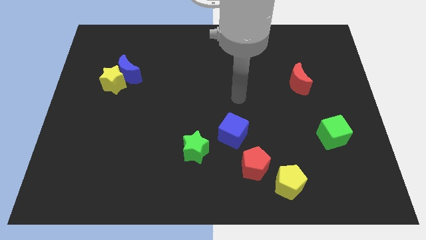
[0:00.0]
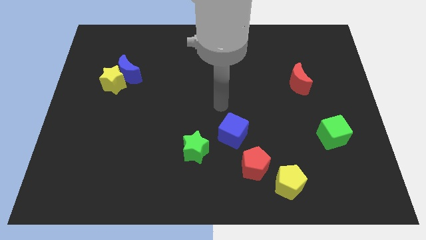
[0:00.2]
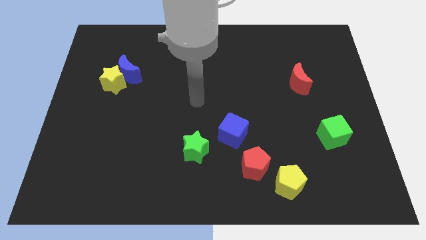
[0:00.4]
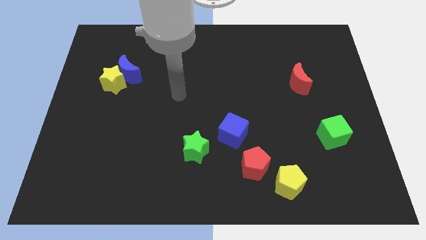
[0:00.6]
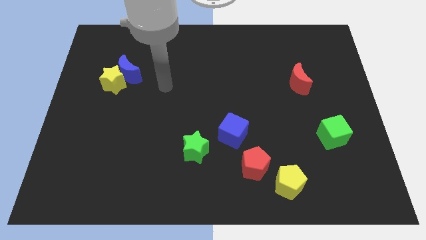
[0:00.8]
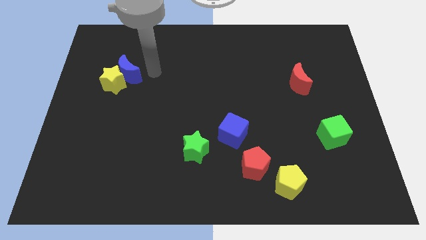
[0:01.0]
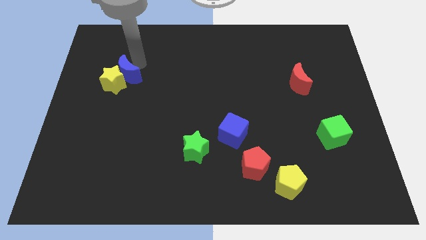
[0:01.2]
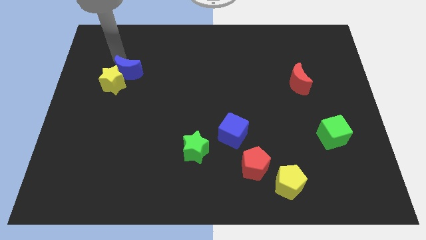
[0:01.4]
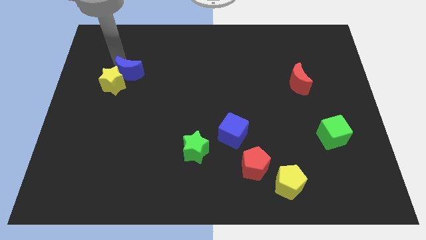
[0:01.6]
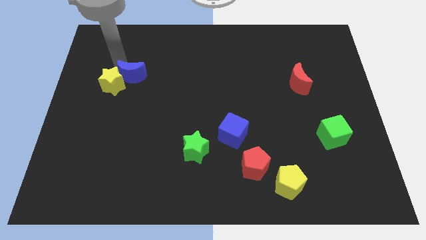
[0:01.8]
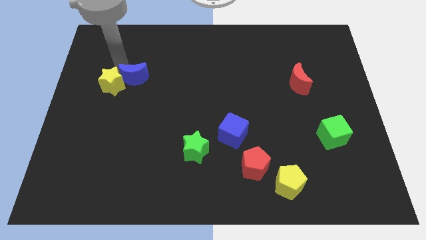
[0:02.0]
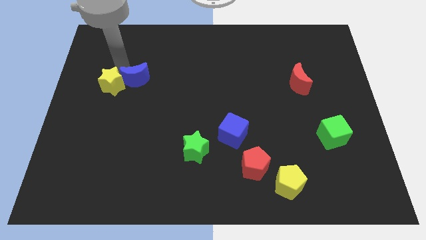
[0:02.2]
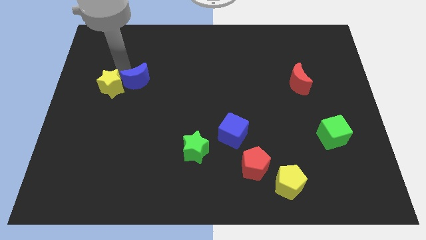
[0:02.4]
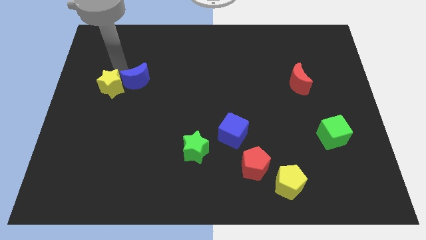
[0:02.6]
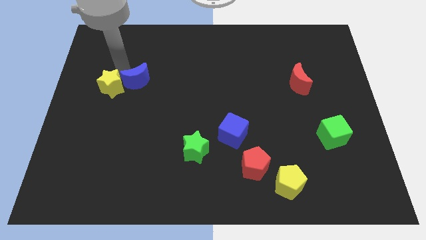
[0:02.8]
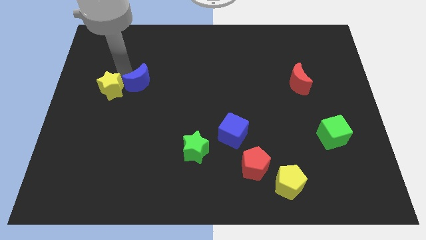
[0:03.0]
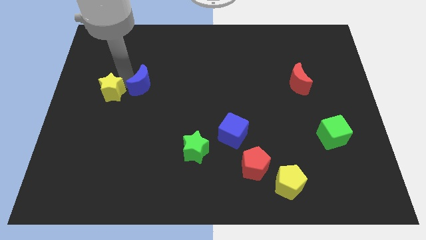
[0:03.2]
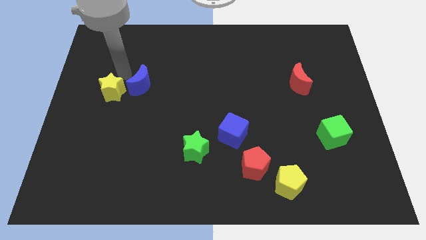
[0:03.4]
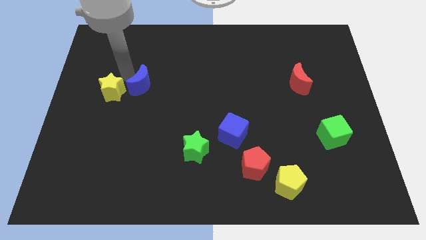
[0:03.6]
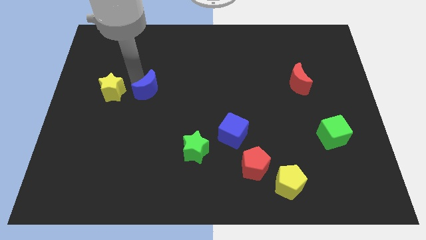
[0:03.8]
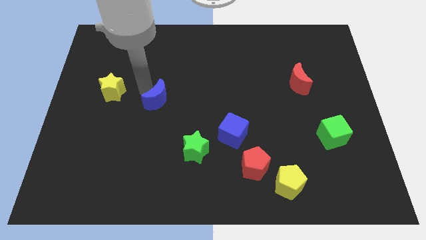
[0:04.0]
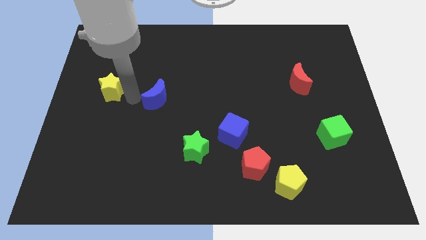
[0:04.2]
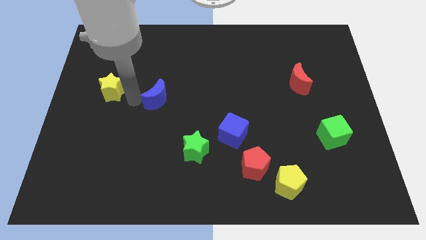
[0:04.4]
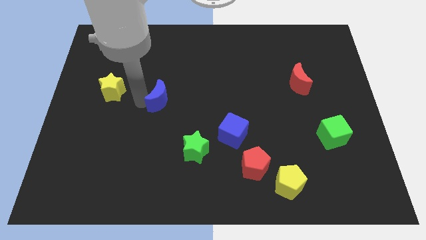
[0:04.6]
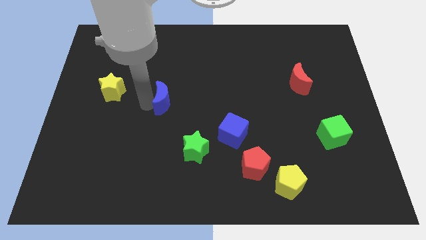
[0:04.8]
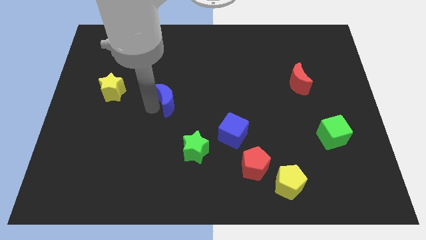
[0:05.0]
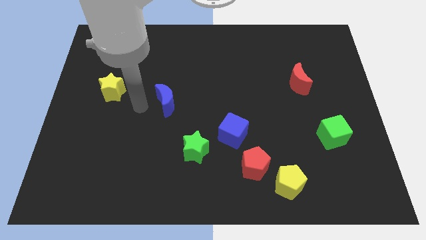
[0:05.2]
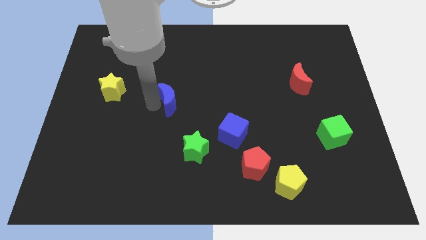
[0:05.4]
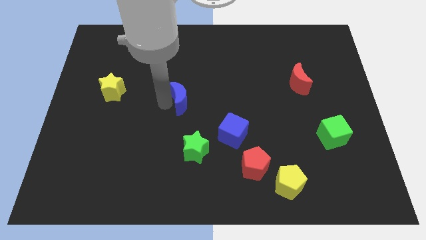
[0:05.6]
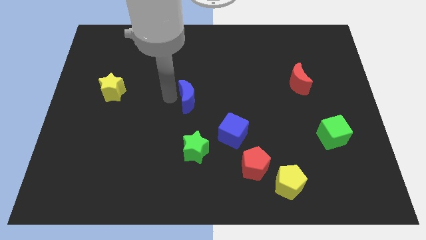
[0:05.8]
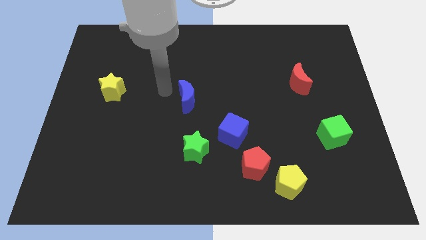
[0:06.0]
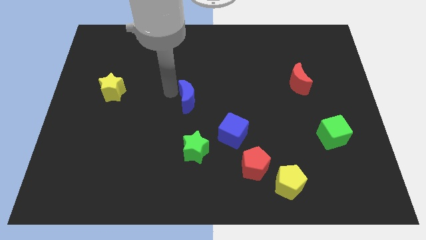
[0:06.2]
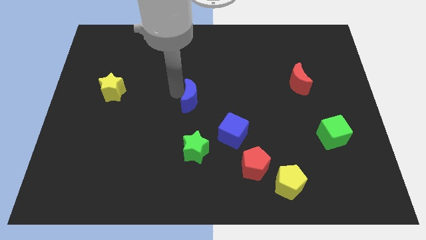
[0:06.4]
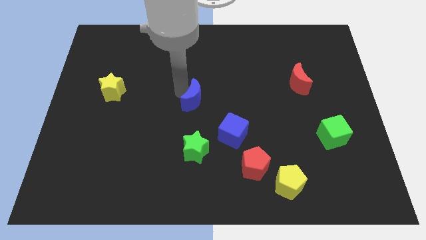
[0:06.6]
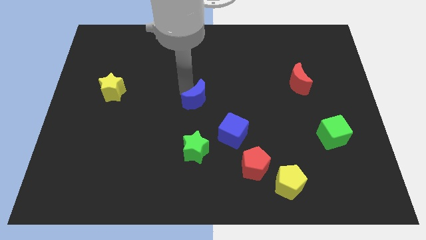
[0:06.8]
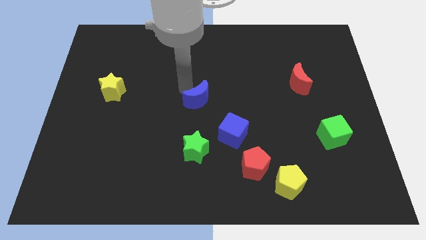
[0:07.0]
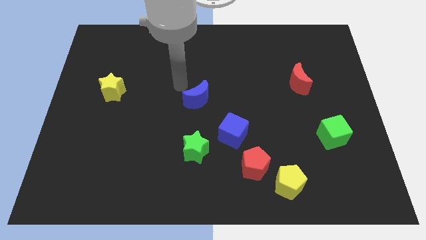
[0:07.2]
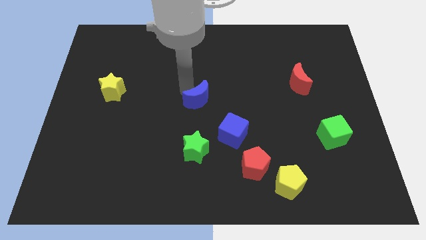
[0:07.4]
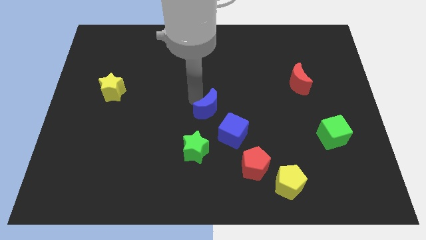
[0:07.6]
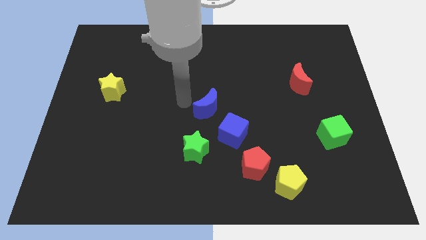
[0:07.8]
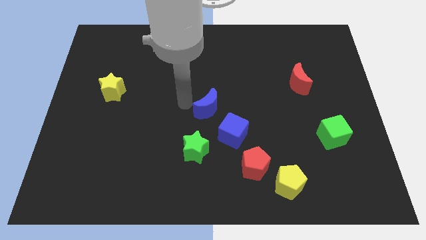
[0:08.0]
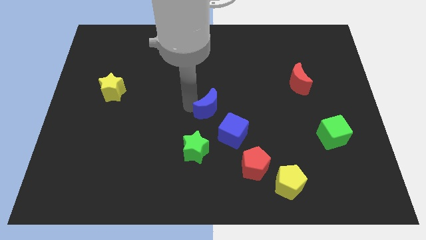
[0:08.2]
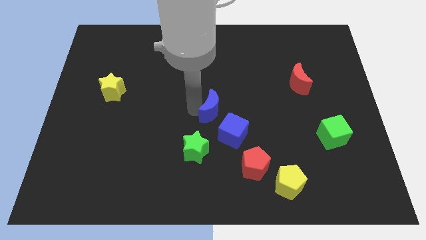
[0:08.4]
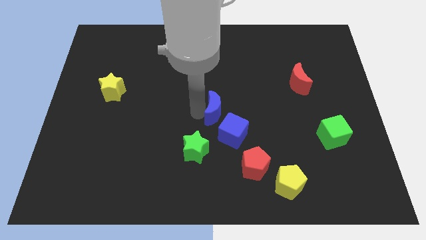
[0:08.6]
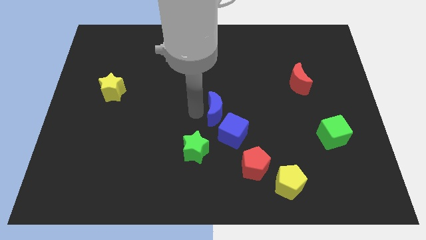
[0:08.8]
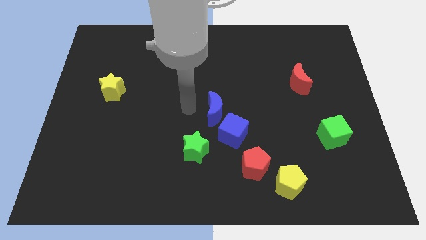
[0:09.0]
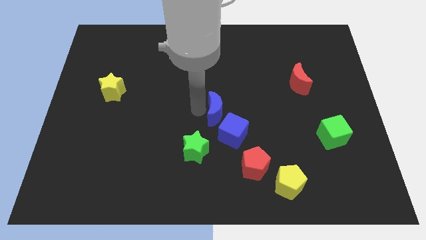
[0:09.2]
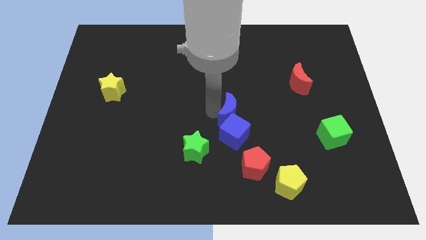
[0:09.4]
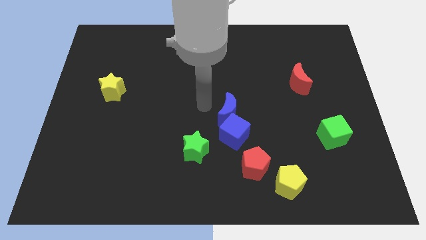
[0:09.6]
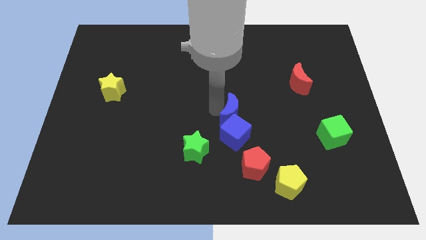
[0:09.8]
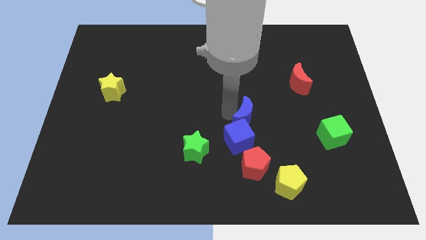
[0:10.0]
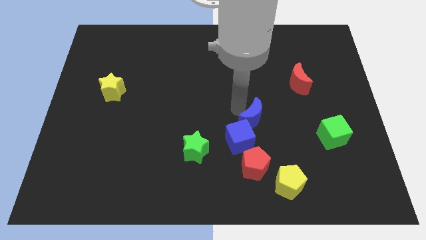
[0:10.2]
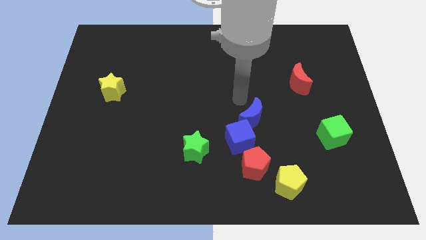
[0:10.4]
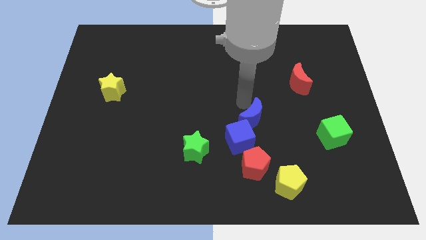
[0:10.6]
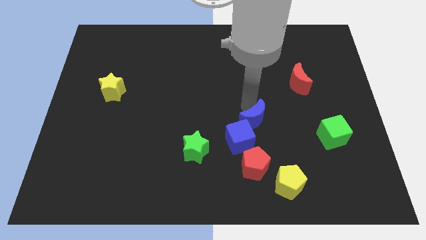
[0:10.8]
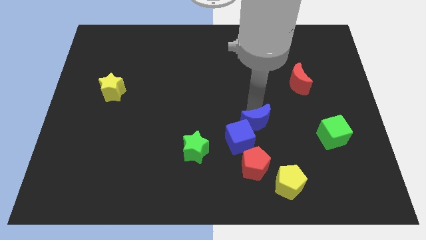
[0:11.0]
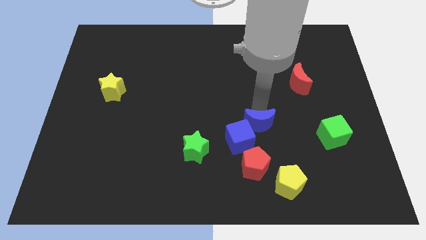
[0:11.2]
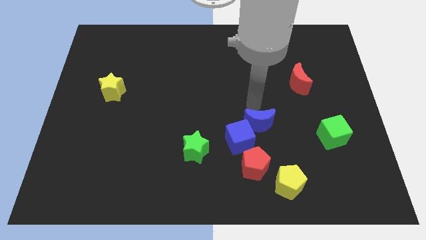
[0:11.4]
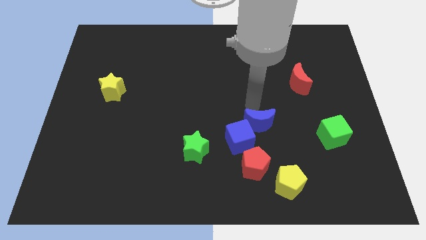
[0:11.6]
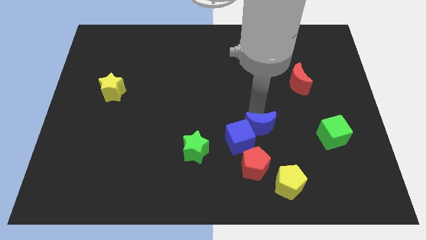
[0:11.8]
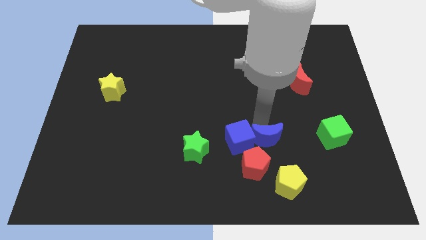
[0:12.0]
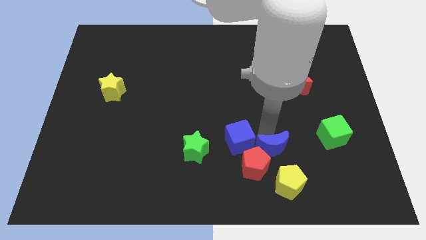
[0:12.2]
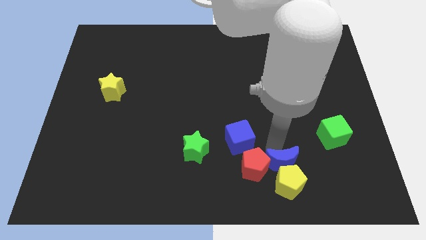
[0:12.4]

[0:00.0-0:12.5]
push the blue moon towards the yellow pentagon

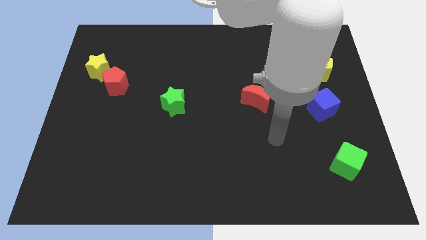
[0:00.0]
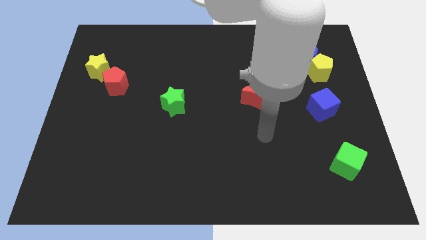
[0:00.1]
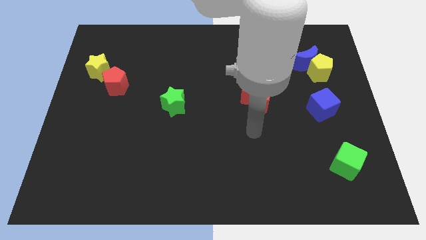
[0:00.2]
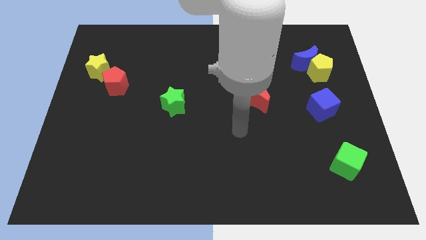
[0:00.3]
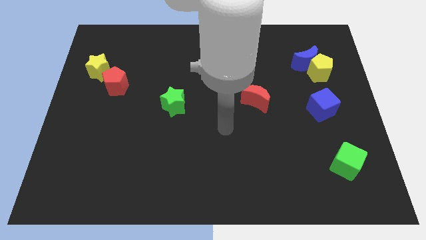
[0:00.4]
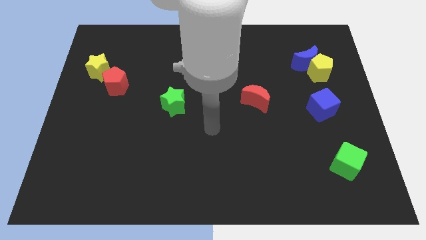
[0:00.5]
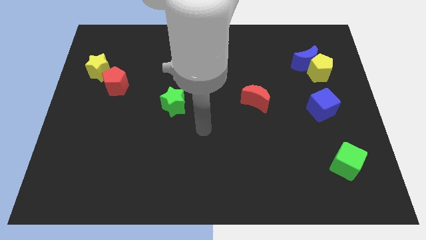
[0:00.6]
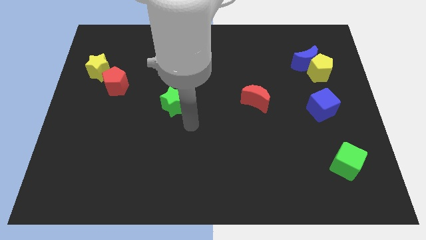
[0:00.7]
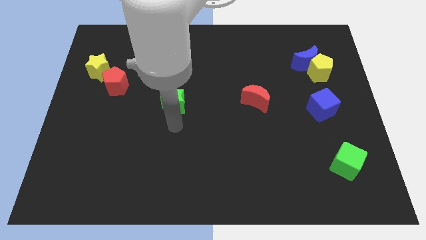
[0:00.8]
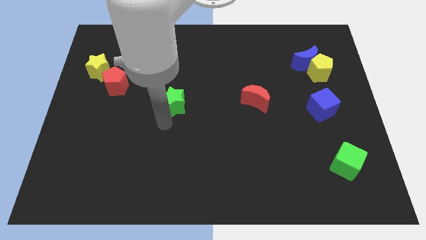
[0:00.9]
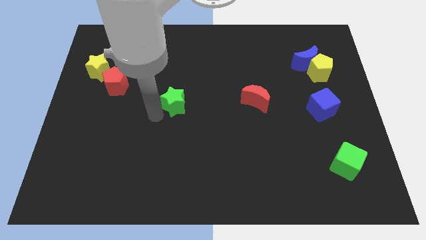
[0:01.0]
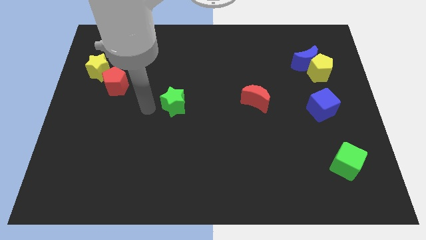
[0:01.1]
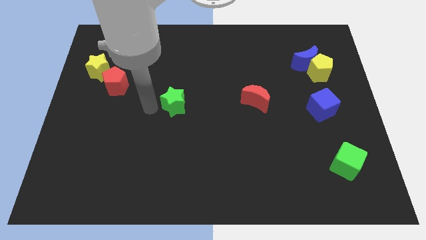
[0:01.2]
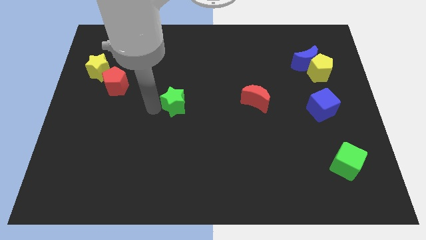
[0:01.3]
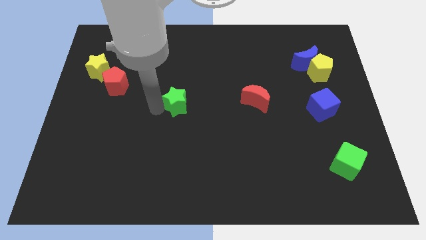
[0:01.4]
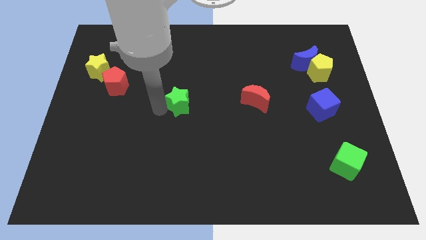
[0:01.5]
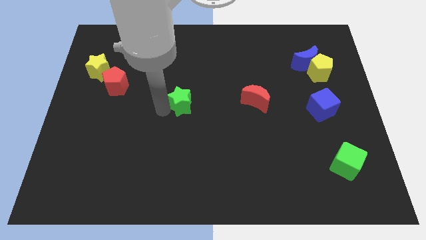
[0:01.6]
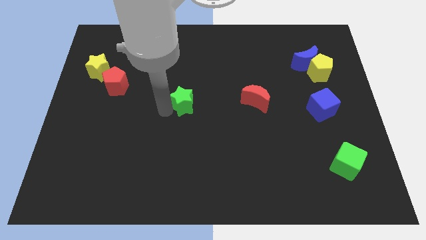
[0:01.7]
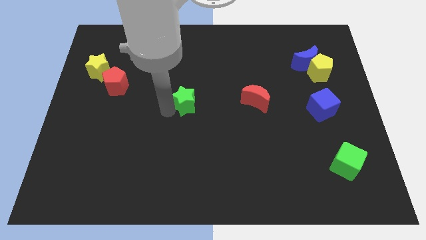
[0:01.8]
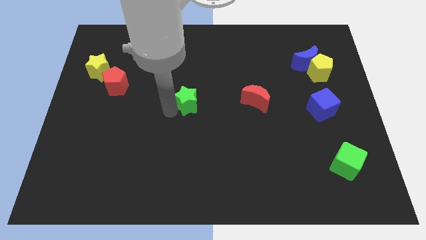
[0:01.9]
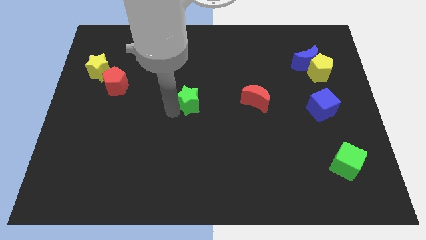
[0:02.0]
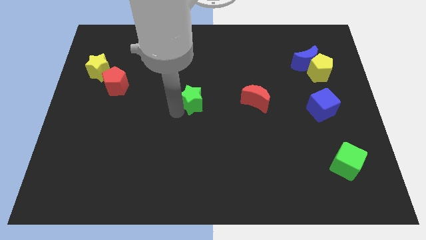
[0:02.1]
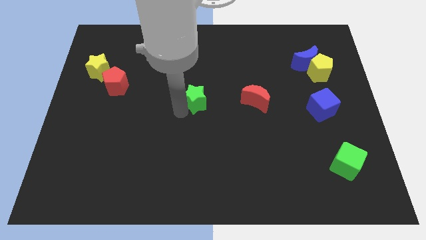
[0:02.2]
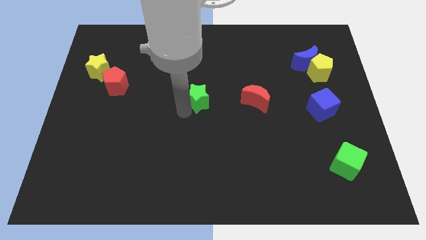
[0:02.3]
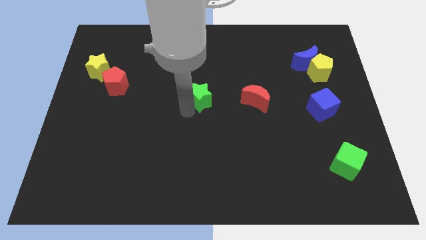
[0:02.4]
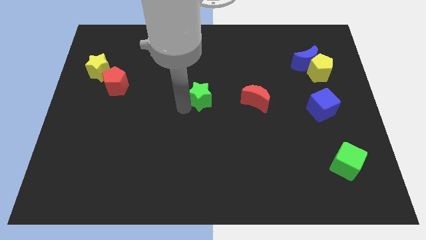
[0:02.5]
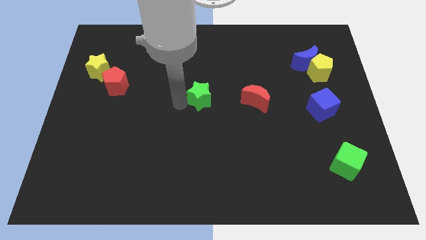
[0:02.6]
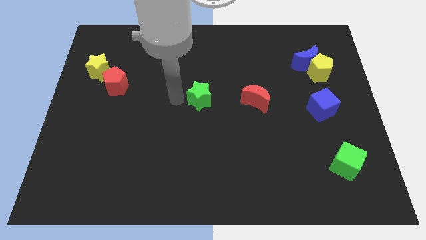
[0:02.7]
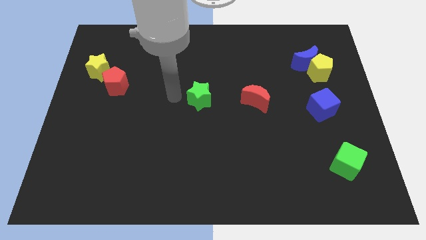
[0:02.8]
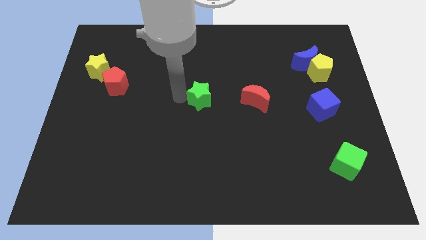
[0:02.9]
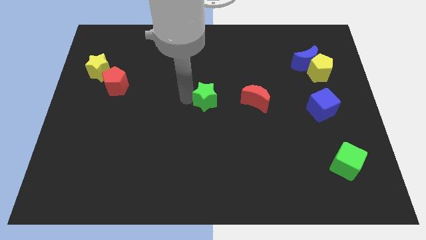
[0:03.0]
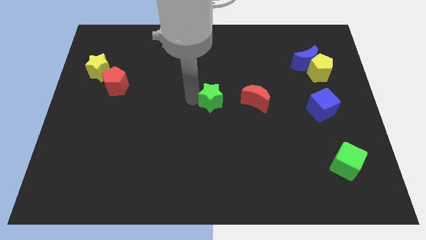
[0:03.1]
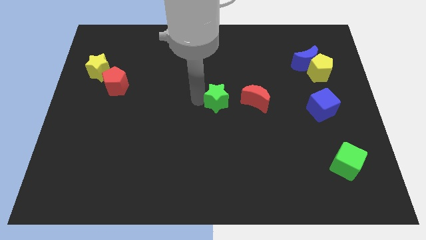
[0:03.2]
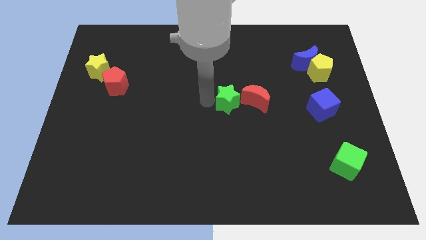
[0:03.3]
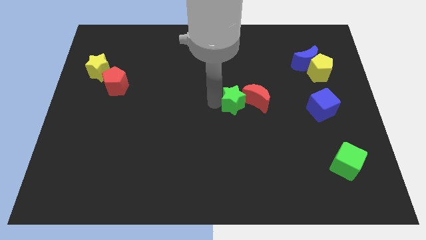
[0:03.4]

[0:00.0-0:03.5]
push the green star next to the red moon
